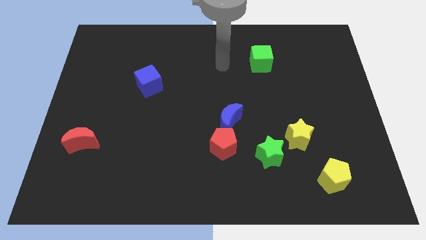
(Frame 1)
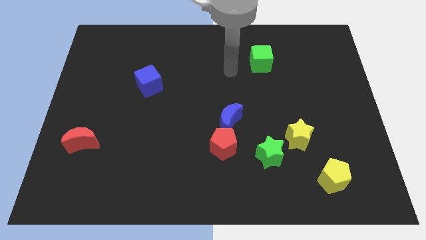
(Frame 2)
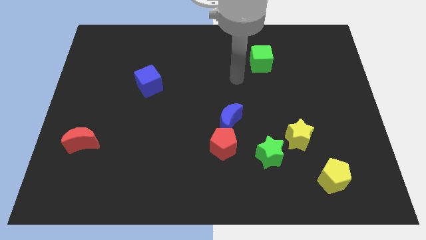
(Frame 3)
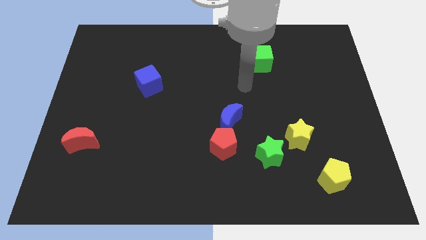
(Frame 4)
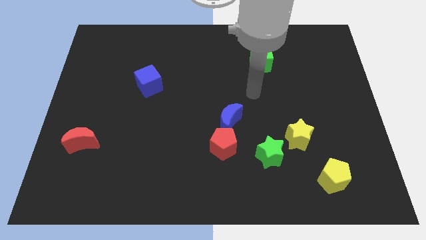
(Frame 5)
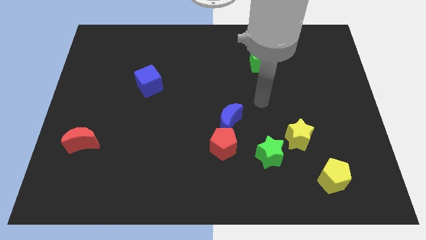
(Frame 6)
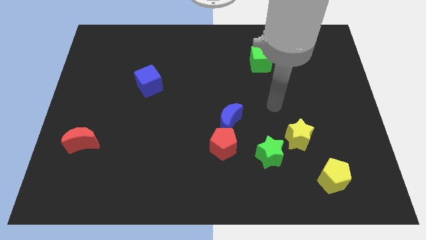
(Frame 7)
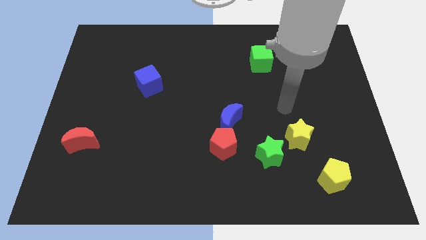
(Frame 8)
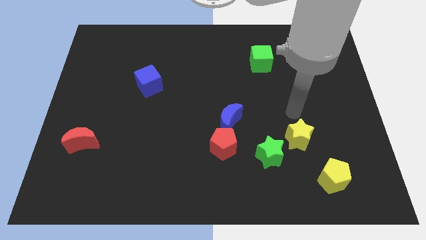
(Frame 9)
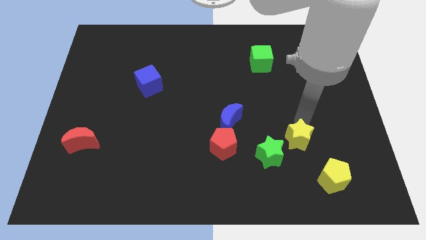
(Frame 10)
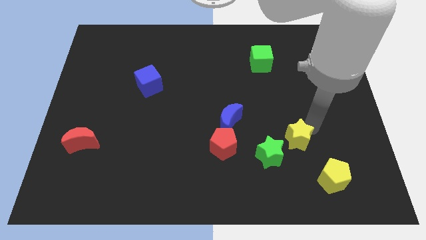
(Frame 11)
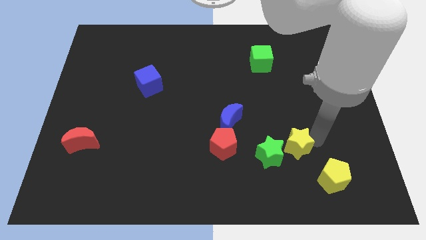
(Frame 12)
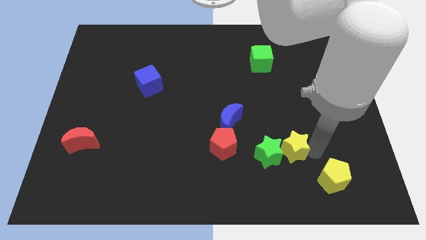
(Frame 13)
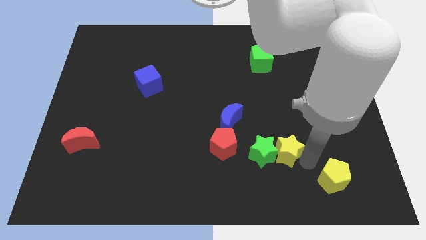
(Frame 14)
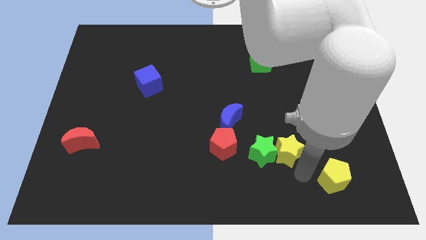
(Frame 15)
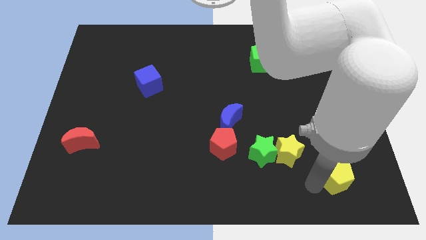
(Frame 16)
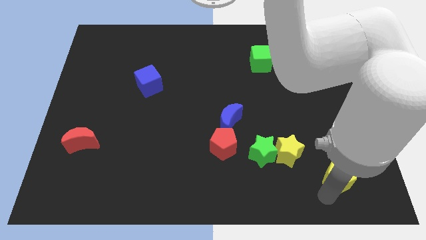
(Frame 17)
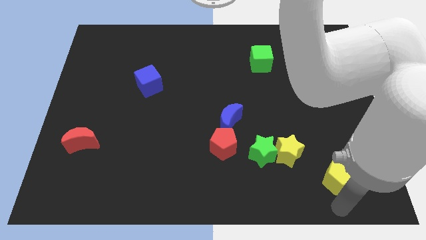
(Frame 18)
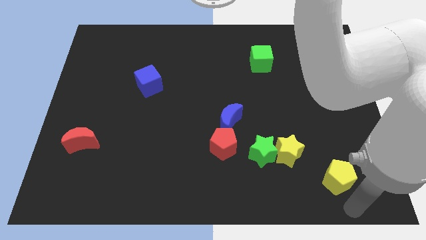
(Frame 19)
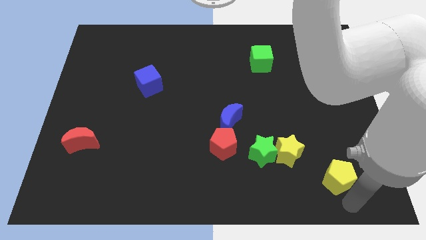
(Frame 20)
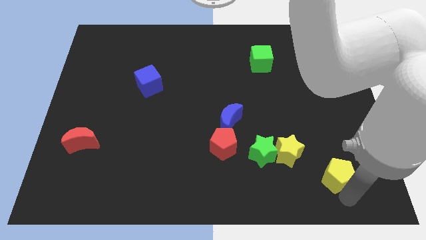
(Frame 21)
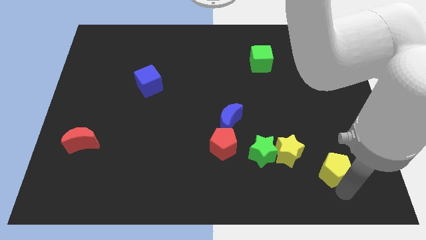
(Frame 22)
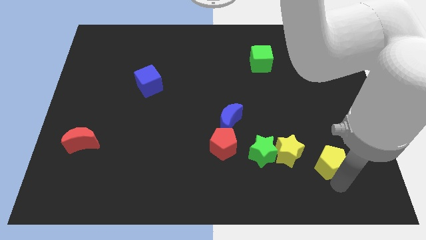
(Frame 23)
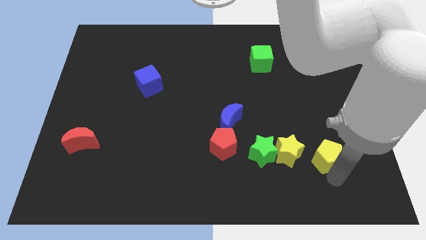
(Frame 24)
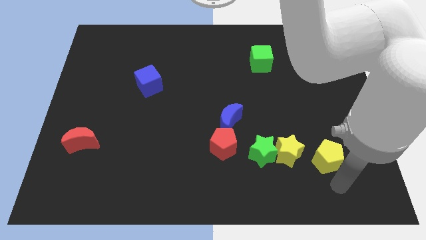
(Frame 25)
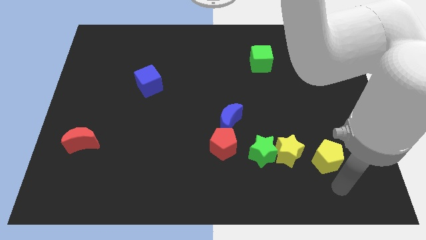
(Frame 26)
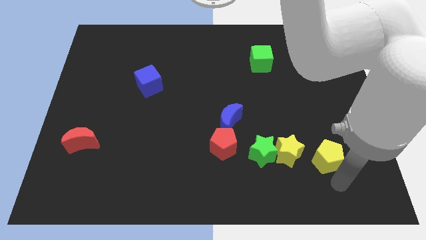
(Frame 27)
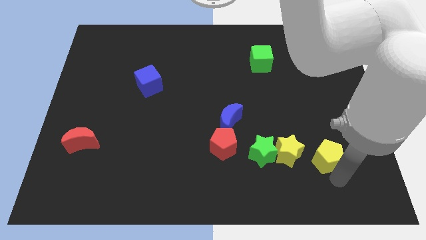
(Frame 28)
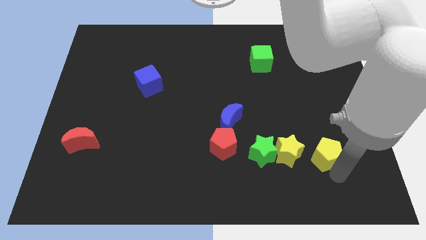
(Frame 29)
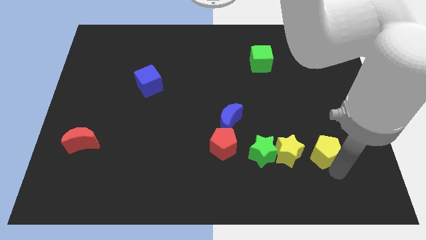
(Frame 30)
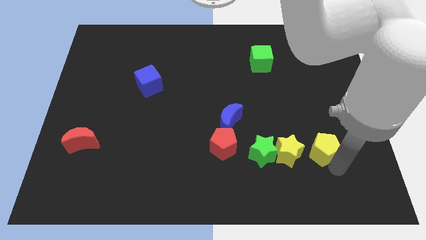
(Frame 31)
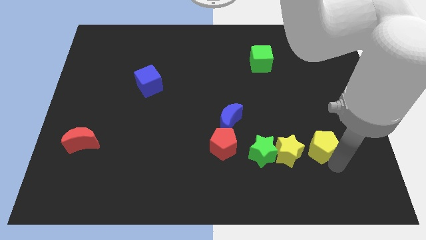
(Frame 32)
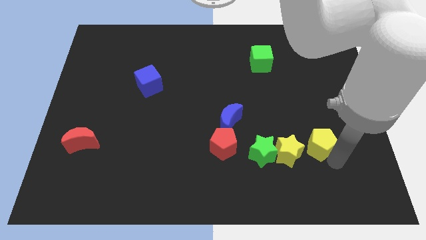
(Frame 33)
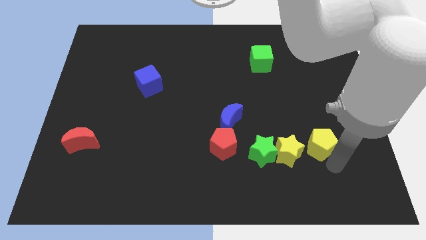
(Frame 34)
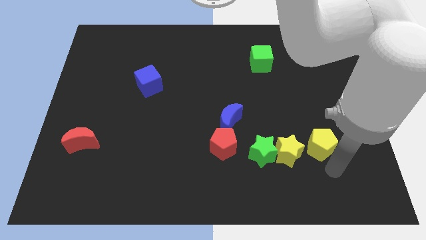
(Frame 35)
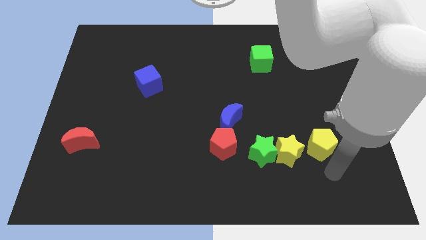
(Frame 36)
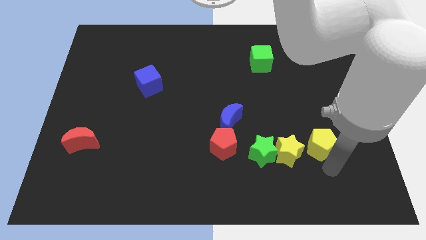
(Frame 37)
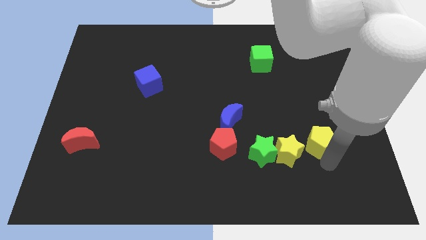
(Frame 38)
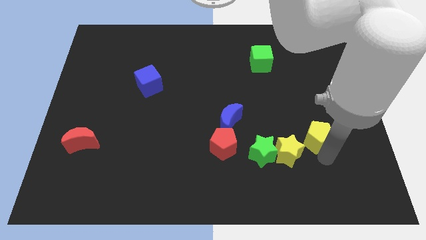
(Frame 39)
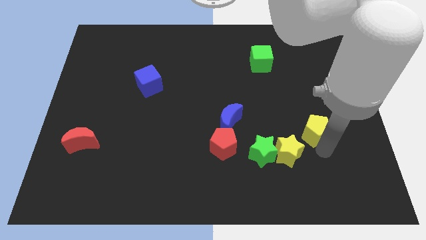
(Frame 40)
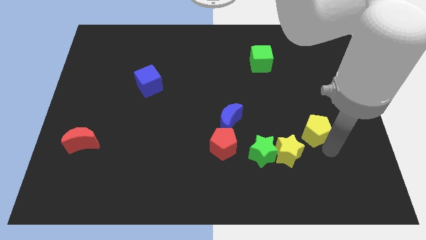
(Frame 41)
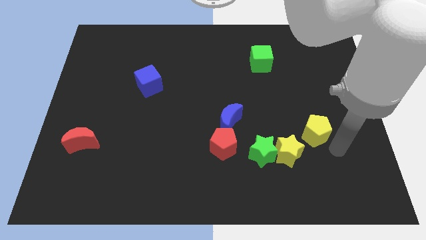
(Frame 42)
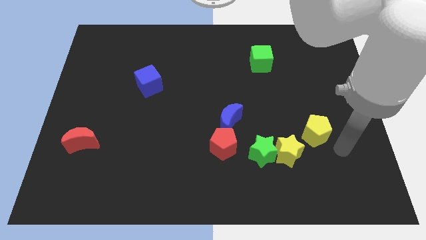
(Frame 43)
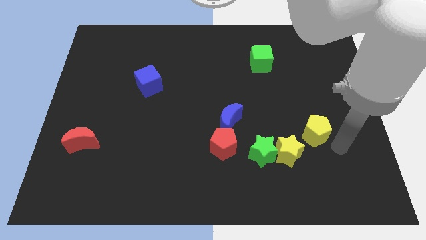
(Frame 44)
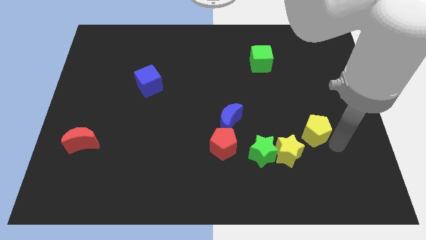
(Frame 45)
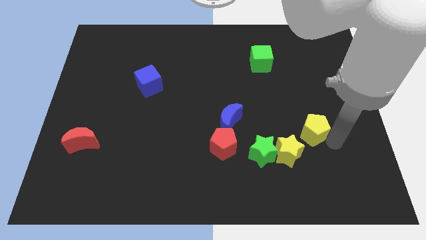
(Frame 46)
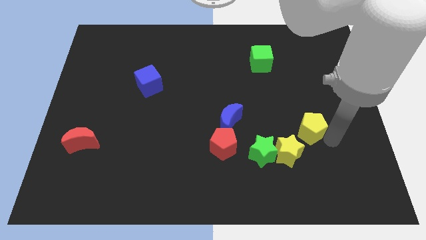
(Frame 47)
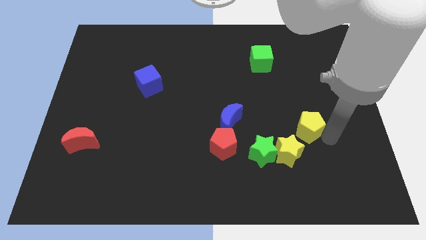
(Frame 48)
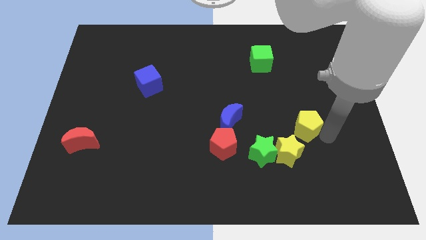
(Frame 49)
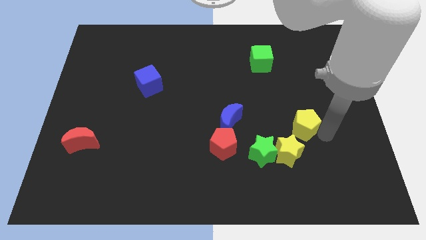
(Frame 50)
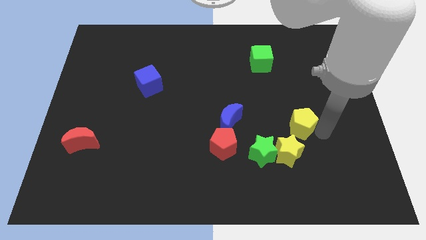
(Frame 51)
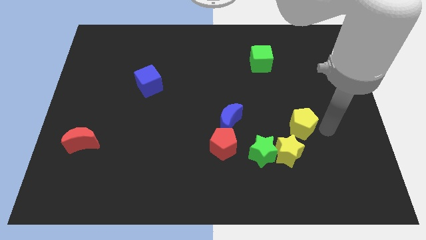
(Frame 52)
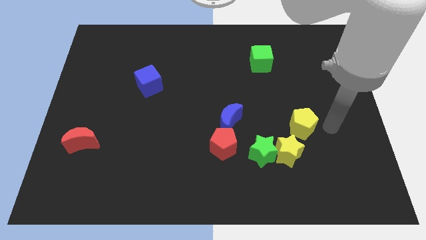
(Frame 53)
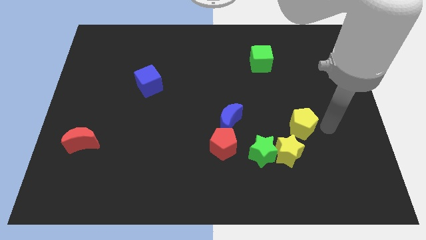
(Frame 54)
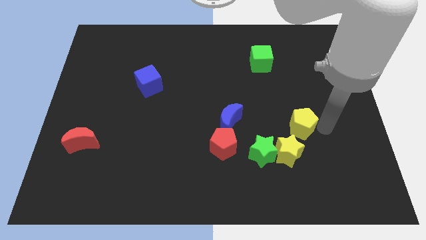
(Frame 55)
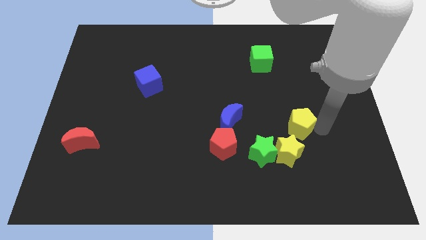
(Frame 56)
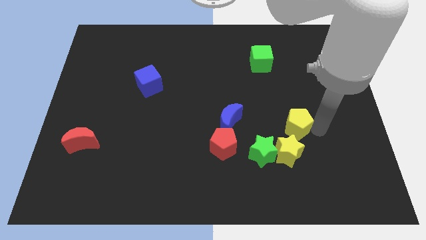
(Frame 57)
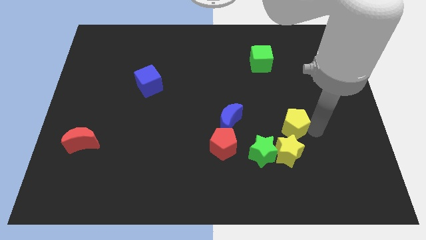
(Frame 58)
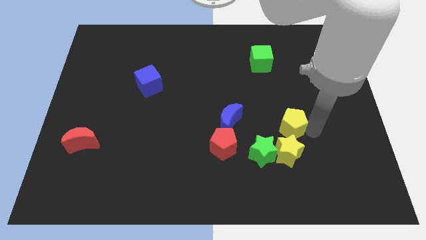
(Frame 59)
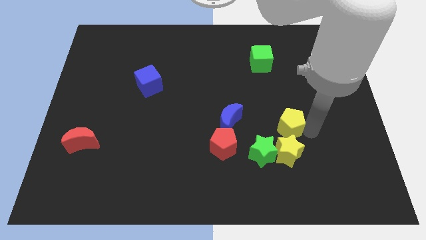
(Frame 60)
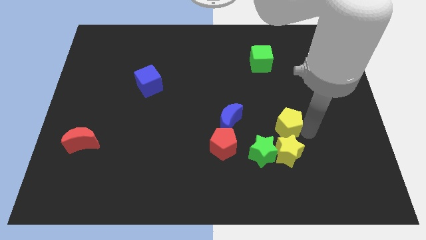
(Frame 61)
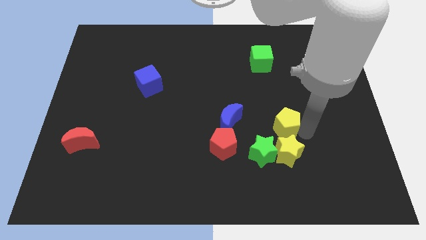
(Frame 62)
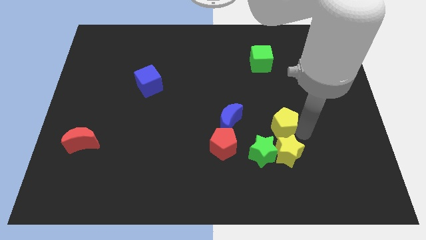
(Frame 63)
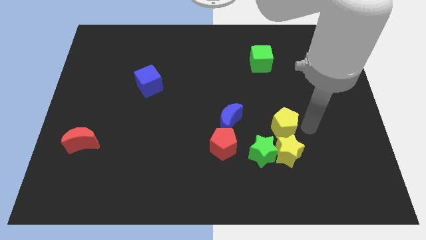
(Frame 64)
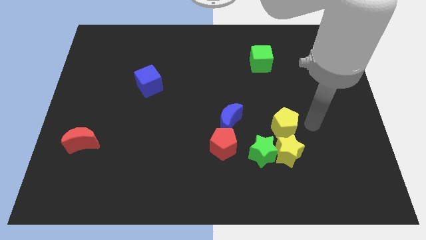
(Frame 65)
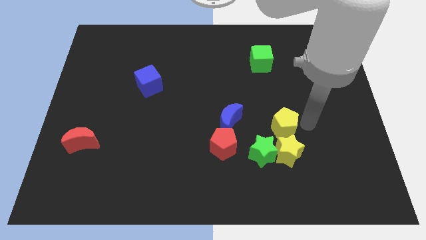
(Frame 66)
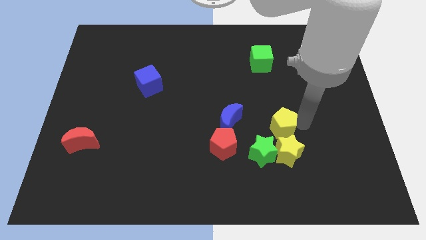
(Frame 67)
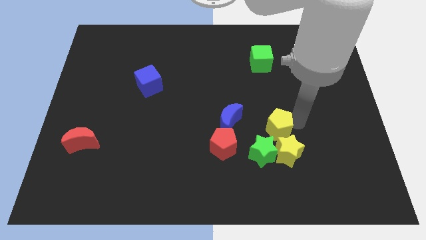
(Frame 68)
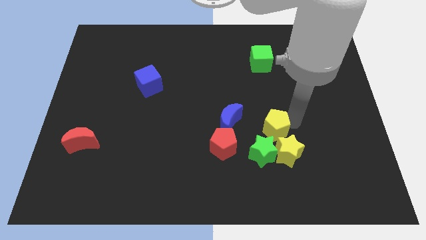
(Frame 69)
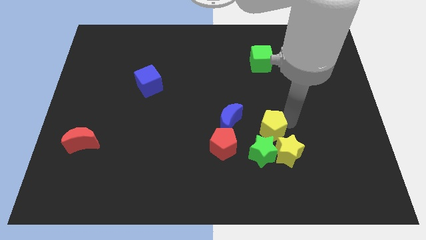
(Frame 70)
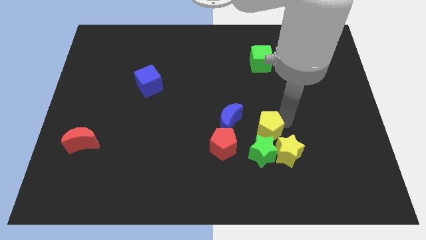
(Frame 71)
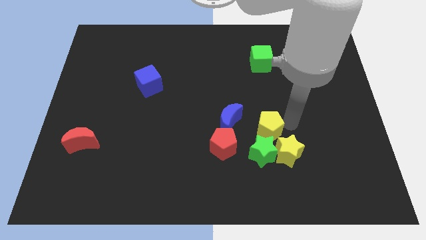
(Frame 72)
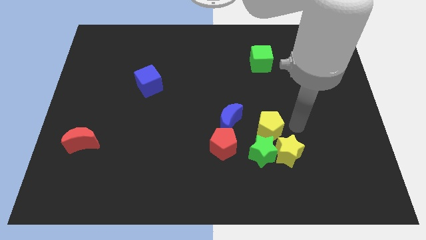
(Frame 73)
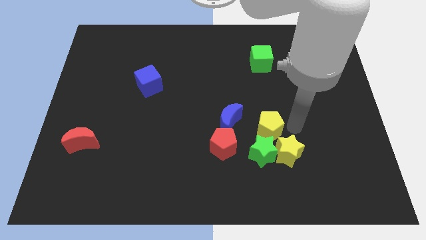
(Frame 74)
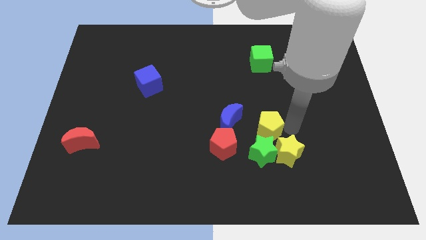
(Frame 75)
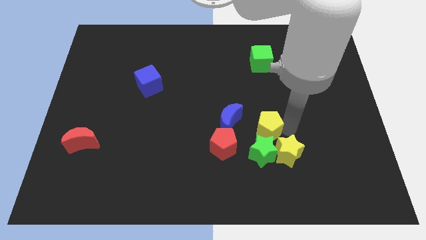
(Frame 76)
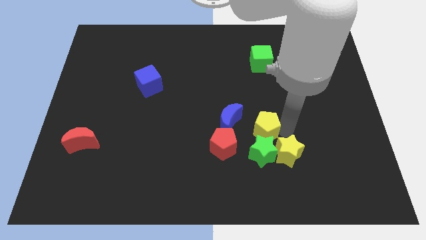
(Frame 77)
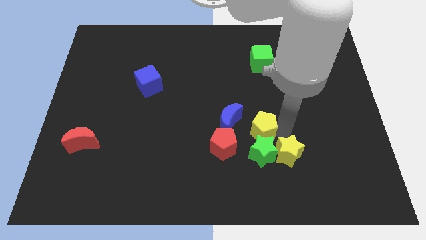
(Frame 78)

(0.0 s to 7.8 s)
push the yellow pentagon to the top left side of the green star
